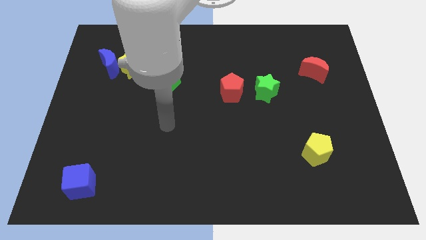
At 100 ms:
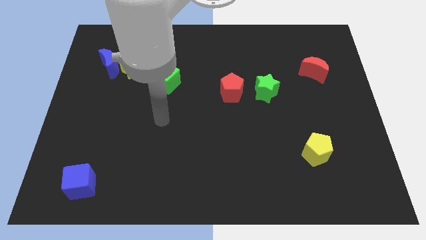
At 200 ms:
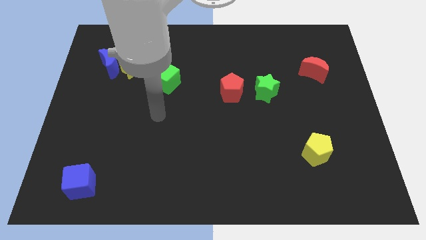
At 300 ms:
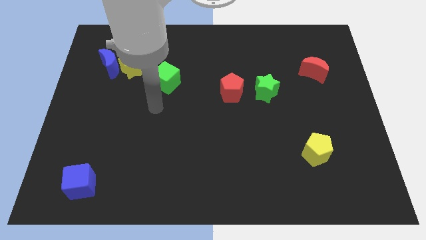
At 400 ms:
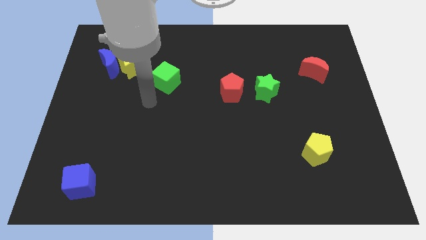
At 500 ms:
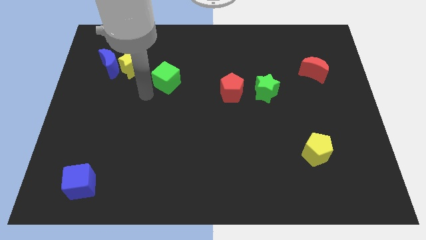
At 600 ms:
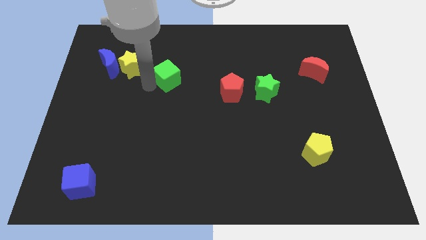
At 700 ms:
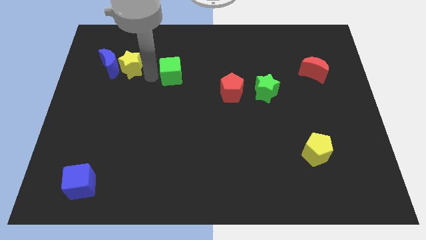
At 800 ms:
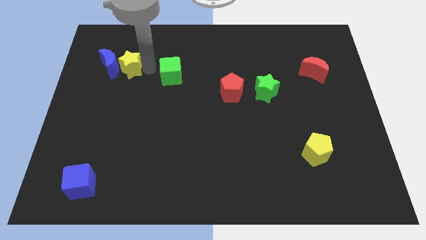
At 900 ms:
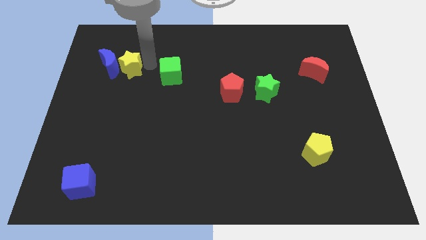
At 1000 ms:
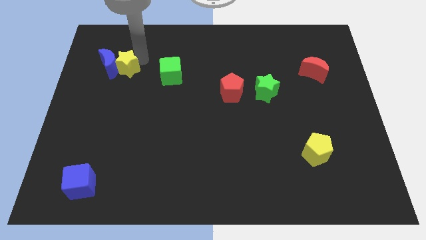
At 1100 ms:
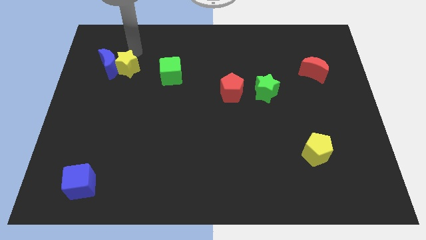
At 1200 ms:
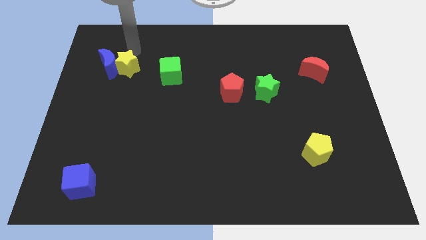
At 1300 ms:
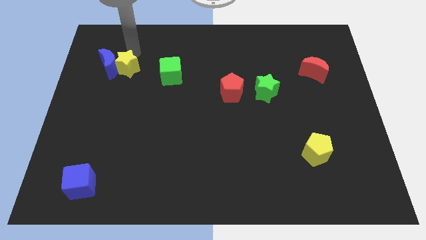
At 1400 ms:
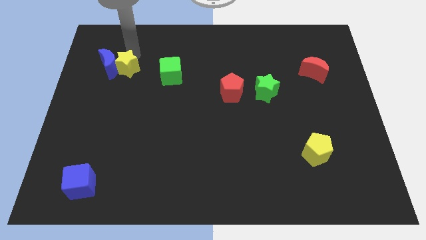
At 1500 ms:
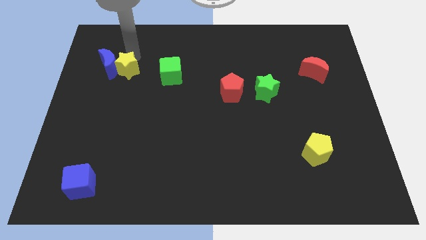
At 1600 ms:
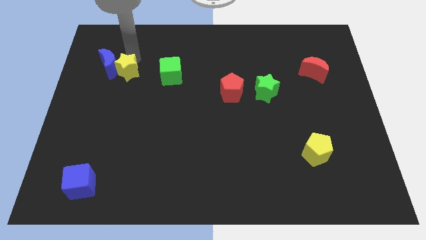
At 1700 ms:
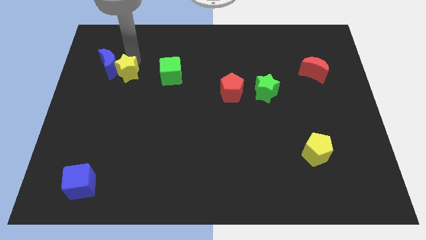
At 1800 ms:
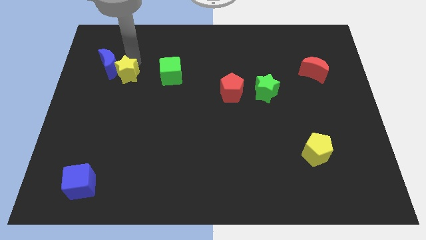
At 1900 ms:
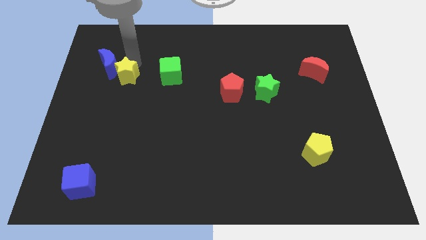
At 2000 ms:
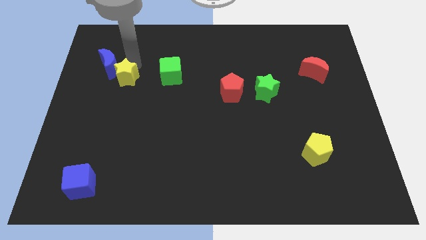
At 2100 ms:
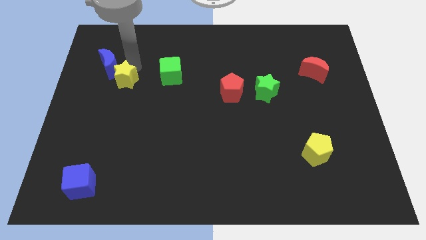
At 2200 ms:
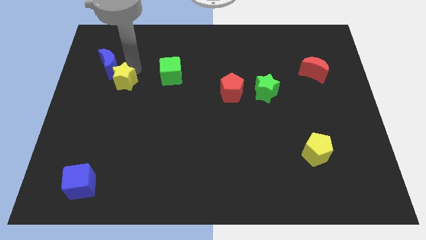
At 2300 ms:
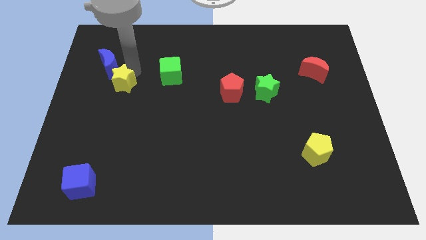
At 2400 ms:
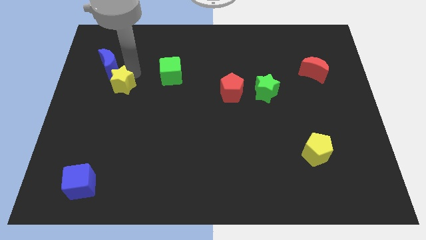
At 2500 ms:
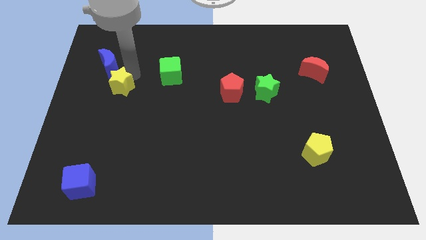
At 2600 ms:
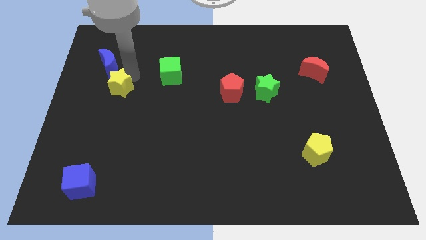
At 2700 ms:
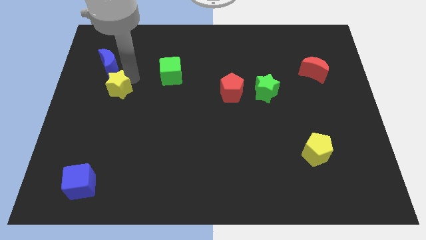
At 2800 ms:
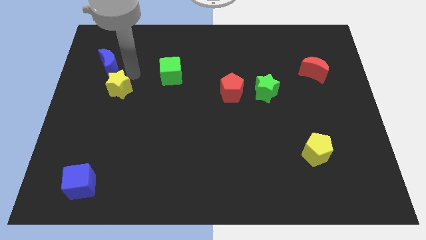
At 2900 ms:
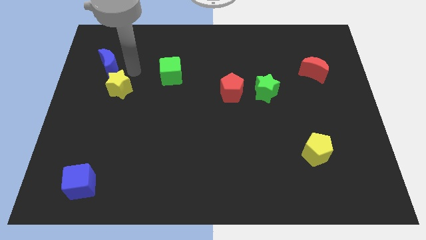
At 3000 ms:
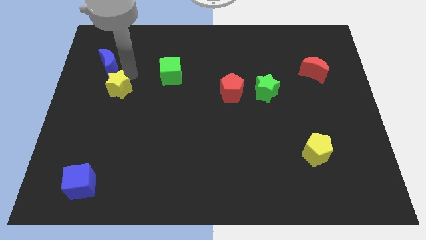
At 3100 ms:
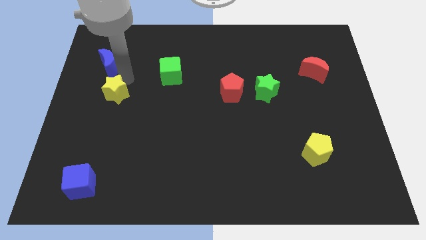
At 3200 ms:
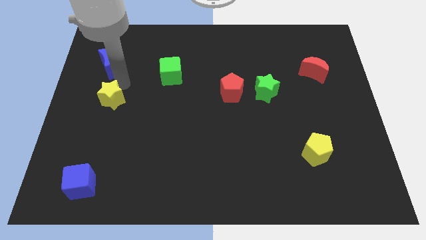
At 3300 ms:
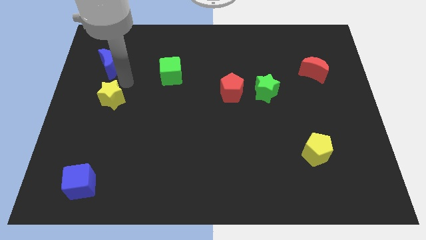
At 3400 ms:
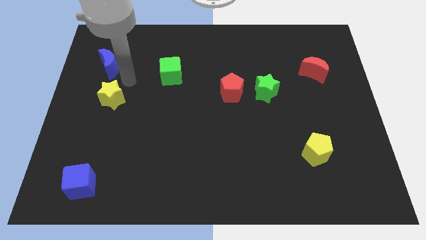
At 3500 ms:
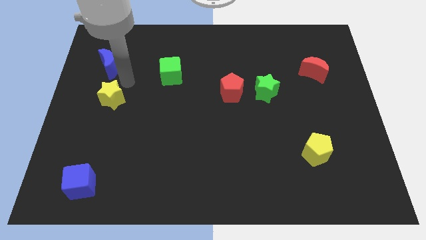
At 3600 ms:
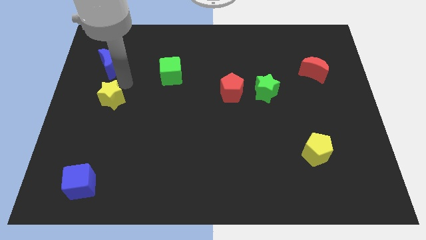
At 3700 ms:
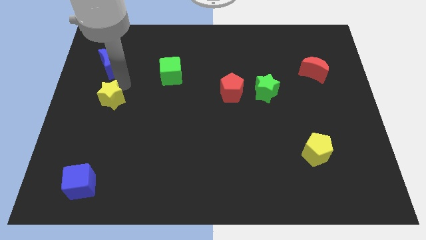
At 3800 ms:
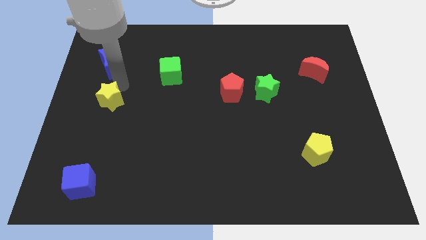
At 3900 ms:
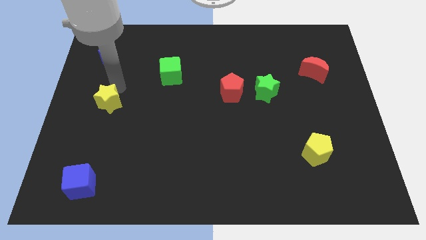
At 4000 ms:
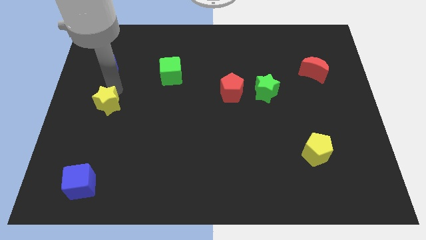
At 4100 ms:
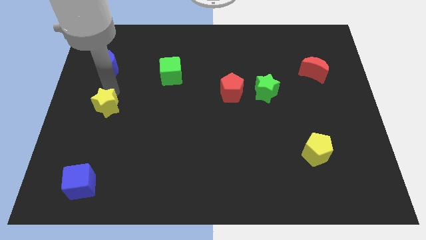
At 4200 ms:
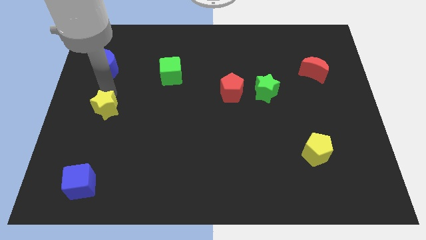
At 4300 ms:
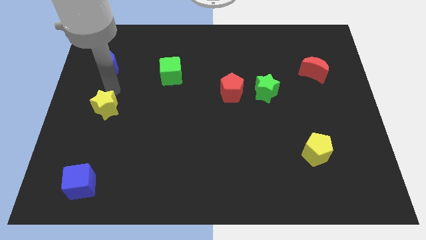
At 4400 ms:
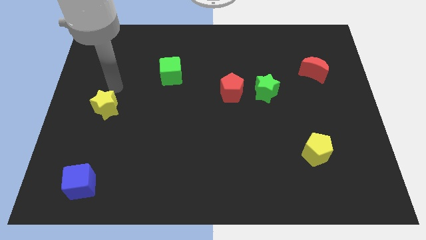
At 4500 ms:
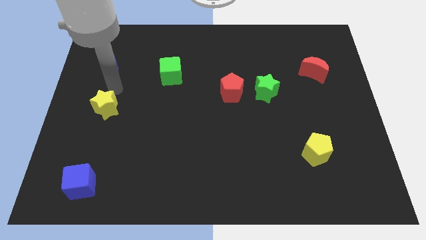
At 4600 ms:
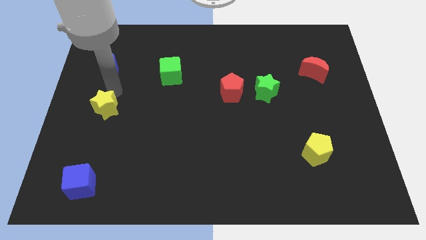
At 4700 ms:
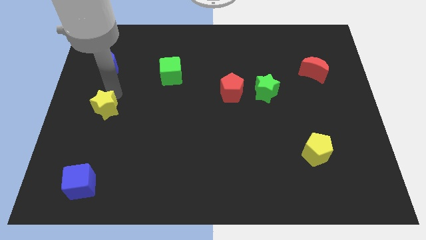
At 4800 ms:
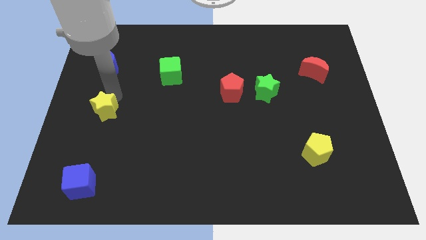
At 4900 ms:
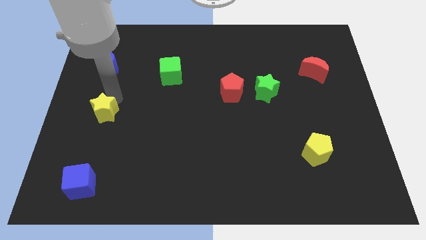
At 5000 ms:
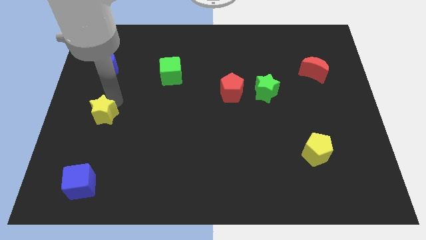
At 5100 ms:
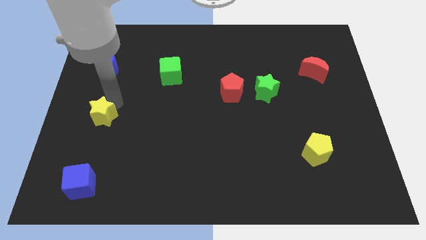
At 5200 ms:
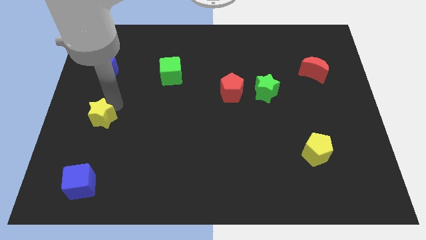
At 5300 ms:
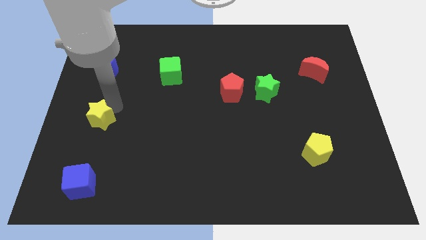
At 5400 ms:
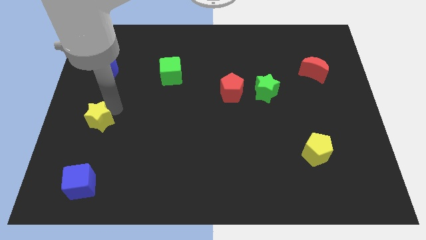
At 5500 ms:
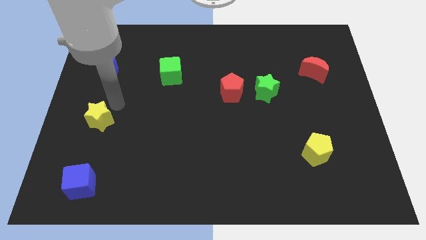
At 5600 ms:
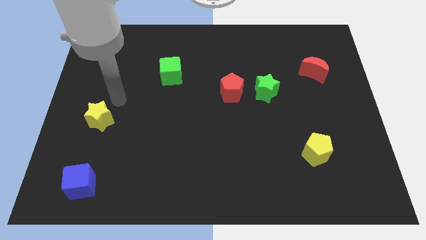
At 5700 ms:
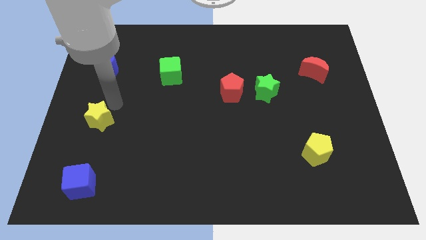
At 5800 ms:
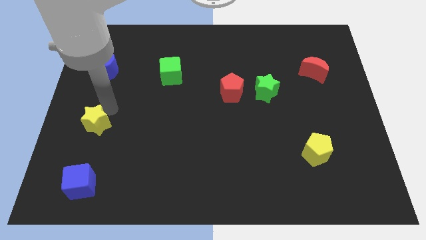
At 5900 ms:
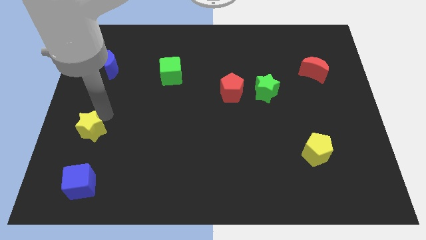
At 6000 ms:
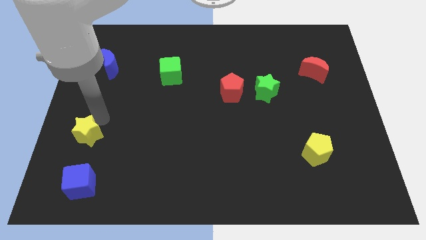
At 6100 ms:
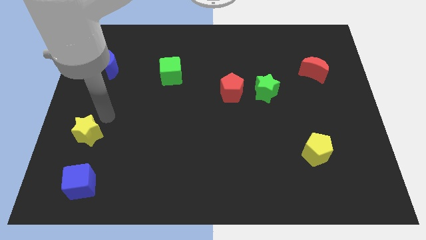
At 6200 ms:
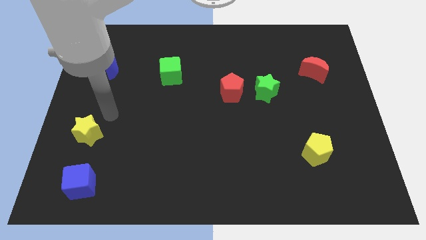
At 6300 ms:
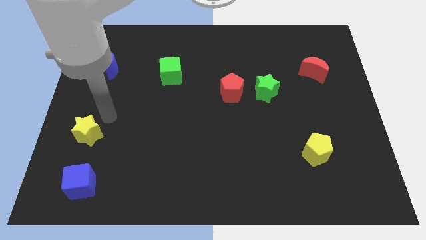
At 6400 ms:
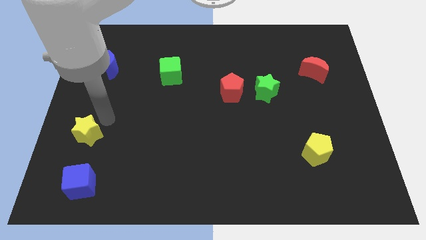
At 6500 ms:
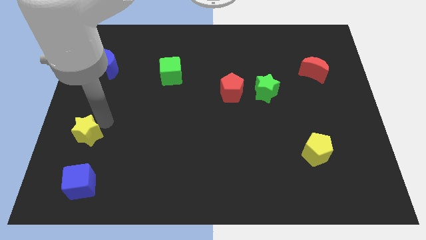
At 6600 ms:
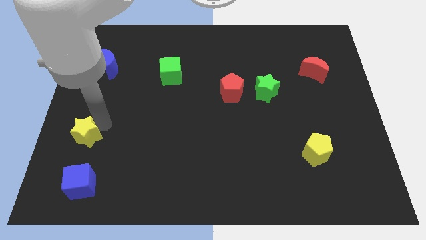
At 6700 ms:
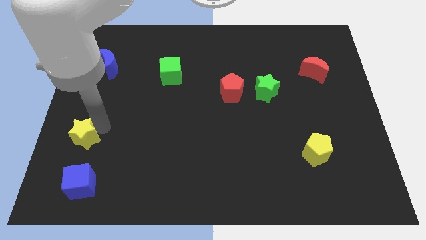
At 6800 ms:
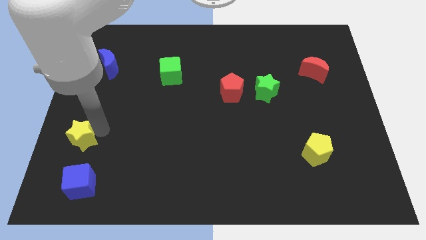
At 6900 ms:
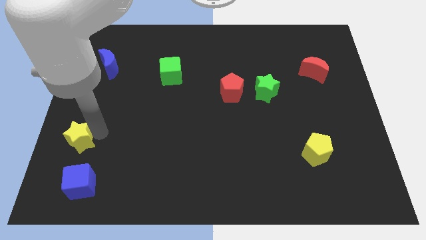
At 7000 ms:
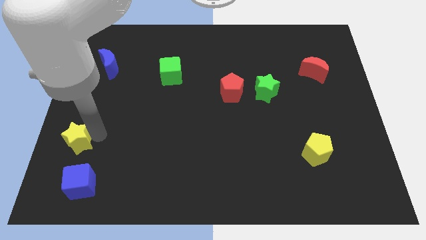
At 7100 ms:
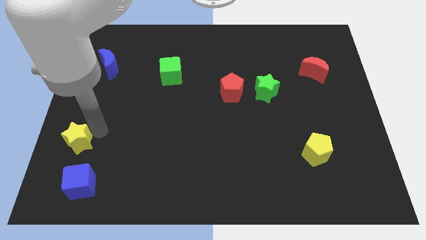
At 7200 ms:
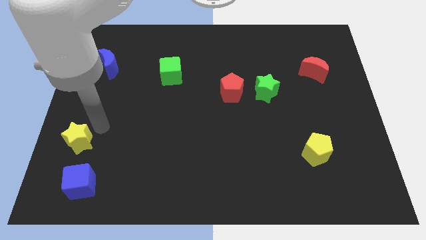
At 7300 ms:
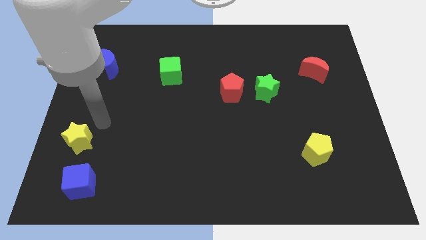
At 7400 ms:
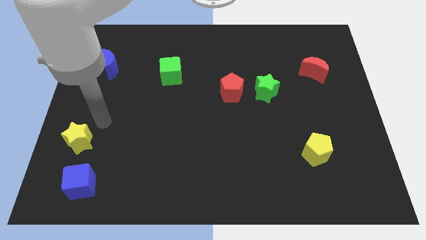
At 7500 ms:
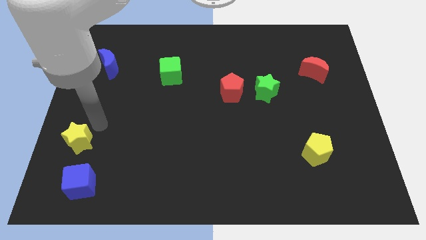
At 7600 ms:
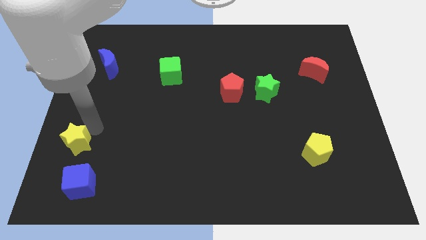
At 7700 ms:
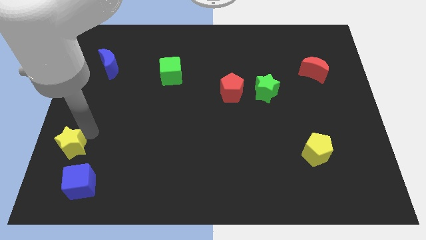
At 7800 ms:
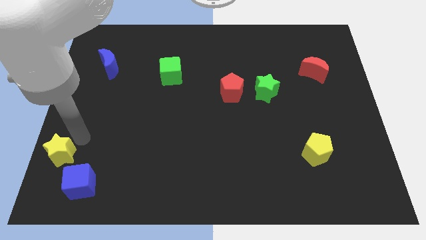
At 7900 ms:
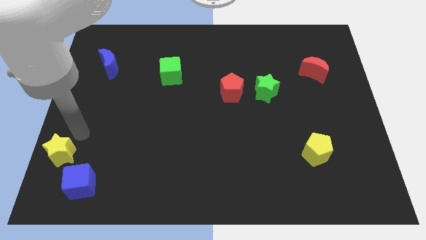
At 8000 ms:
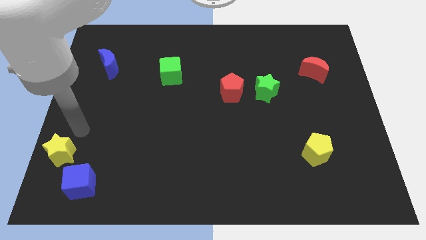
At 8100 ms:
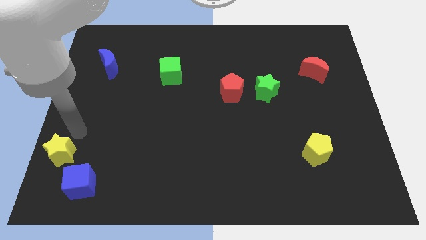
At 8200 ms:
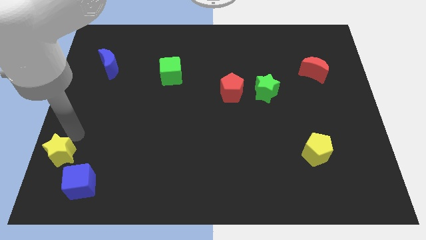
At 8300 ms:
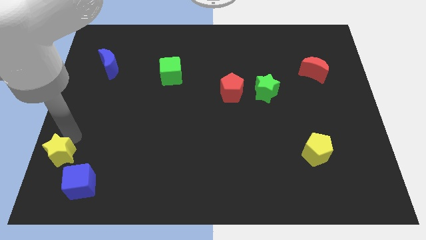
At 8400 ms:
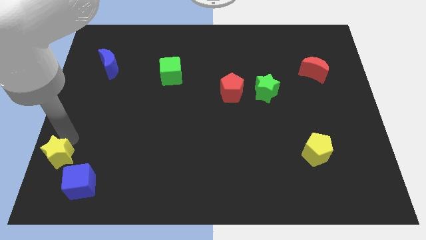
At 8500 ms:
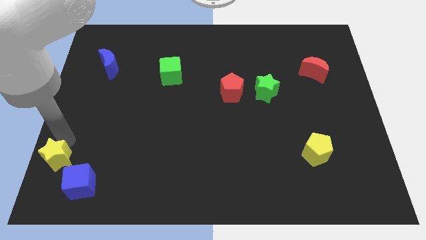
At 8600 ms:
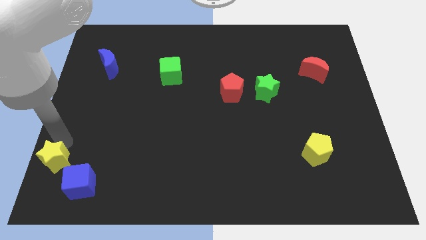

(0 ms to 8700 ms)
slide the yellow star to the bottom left
